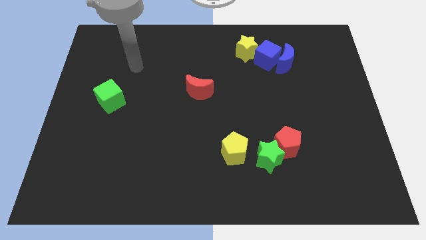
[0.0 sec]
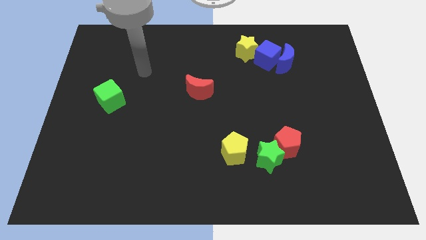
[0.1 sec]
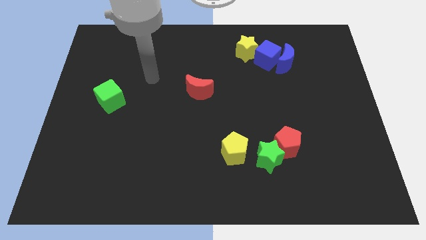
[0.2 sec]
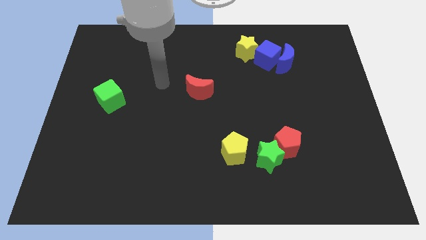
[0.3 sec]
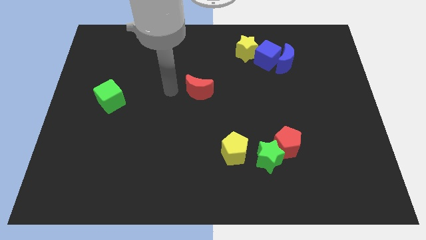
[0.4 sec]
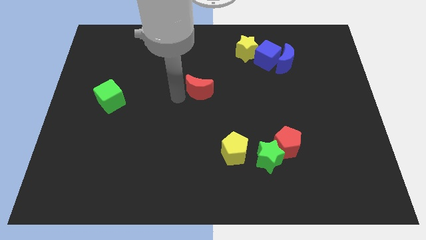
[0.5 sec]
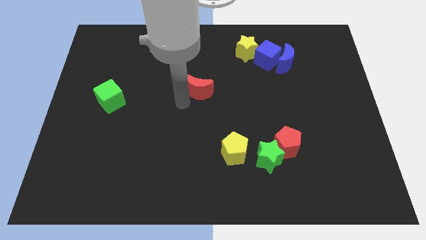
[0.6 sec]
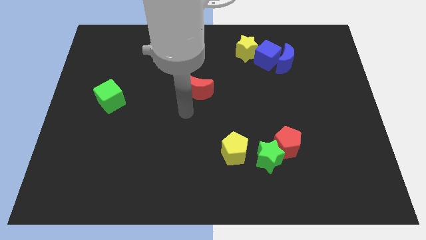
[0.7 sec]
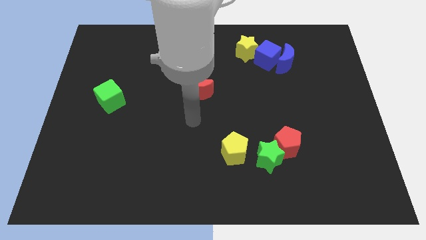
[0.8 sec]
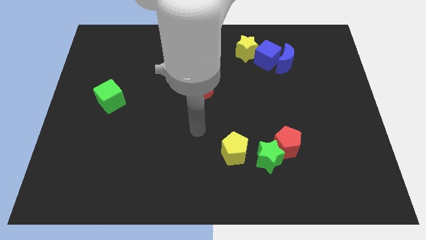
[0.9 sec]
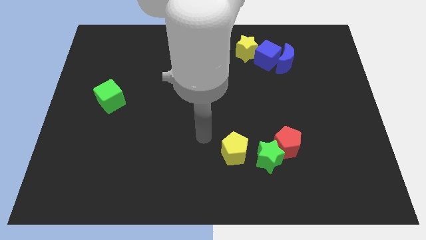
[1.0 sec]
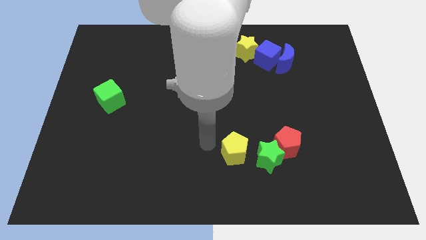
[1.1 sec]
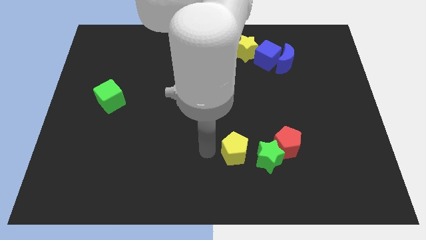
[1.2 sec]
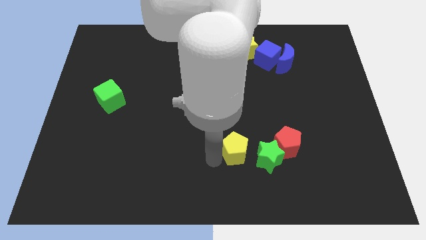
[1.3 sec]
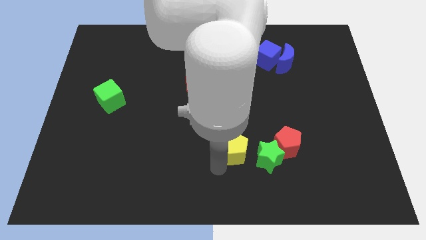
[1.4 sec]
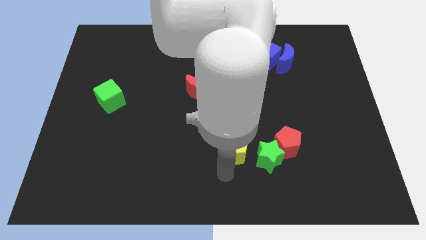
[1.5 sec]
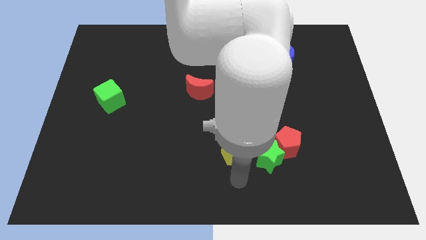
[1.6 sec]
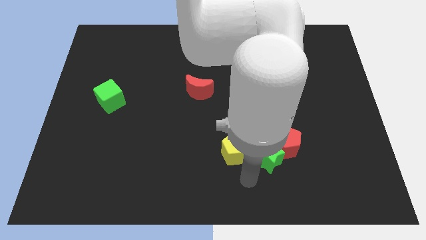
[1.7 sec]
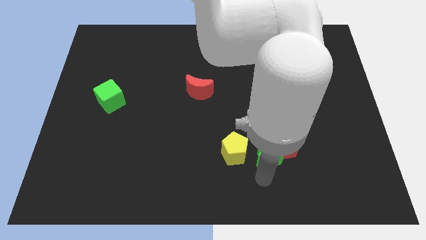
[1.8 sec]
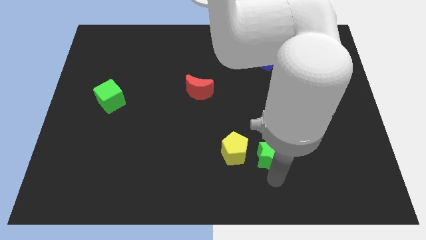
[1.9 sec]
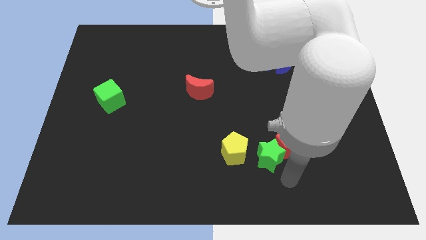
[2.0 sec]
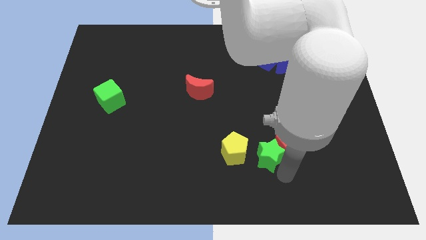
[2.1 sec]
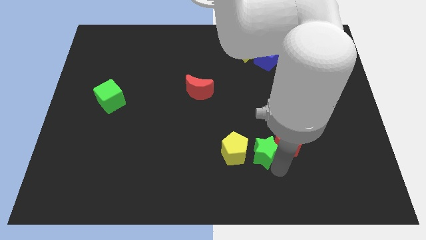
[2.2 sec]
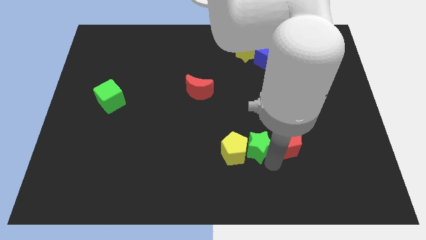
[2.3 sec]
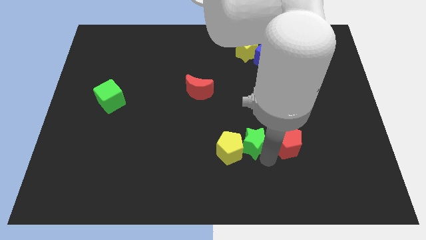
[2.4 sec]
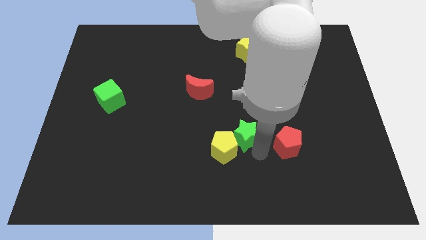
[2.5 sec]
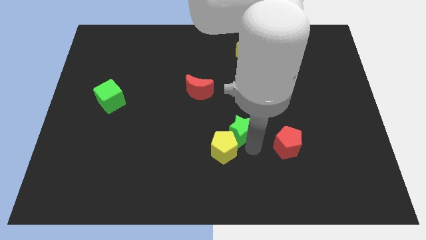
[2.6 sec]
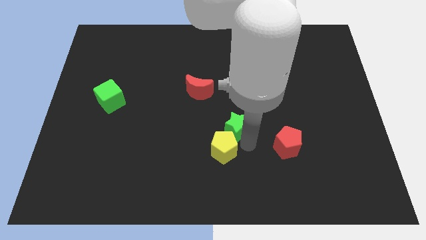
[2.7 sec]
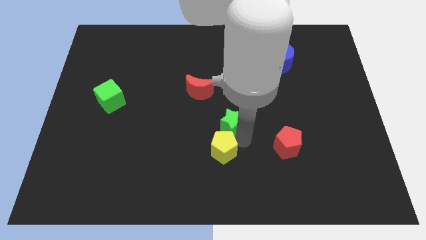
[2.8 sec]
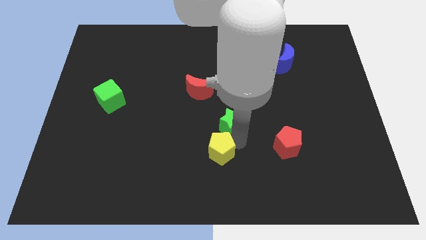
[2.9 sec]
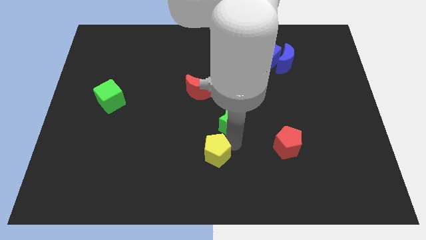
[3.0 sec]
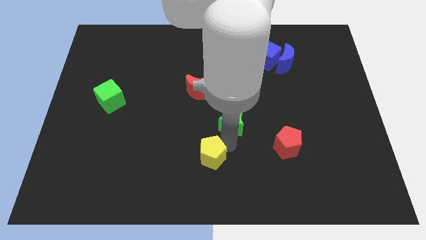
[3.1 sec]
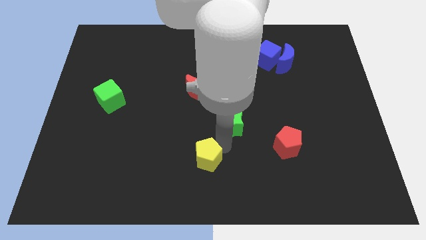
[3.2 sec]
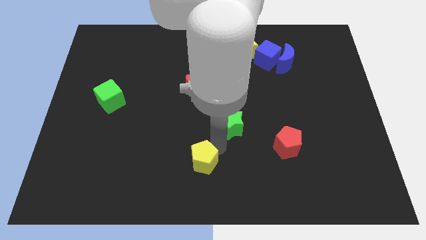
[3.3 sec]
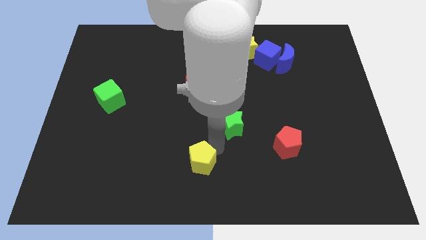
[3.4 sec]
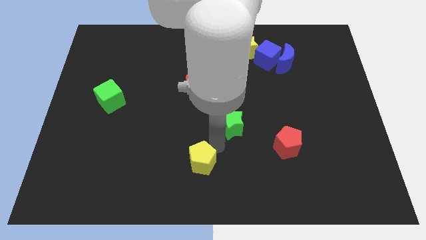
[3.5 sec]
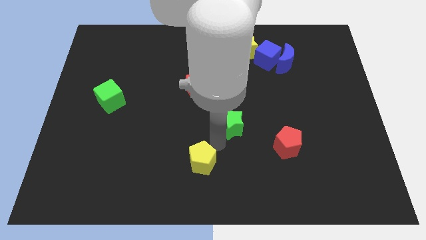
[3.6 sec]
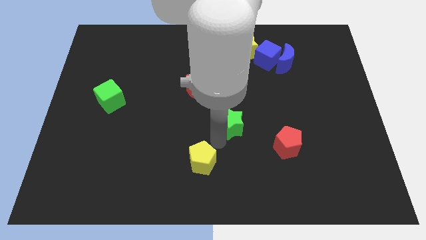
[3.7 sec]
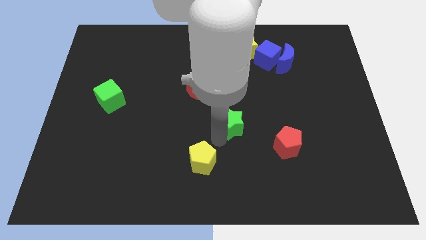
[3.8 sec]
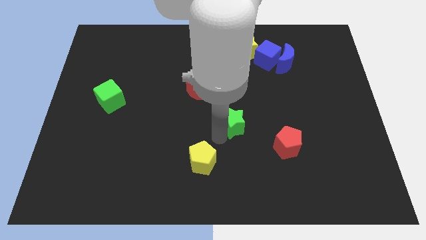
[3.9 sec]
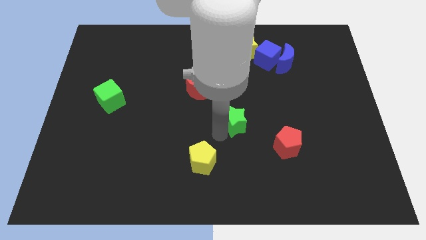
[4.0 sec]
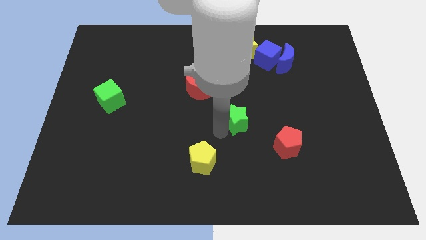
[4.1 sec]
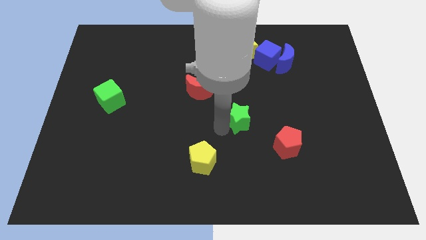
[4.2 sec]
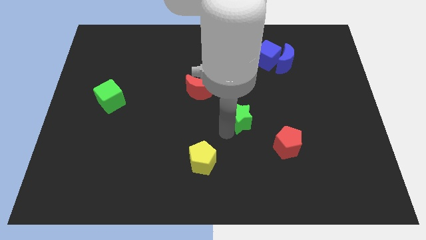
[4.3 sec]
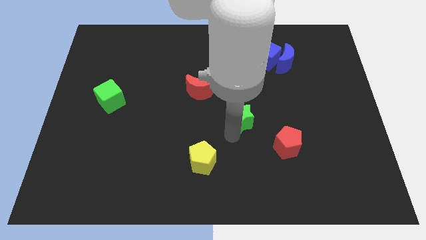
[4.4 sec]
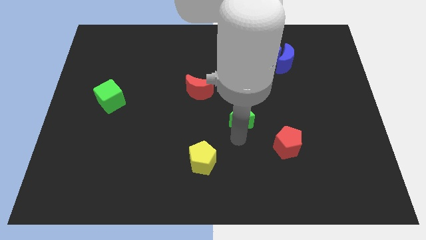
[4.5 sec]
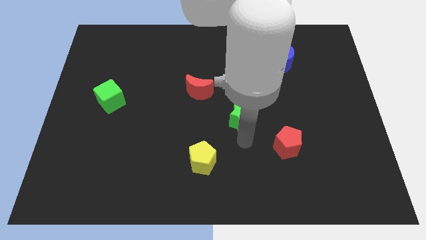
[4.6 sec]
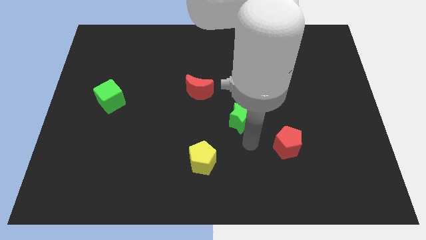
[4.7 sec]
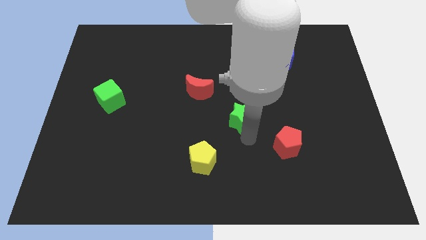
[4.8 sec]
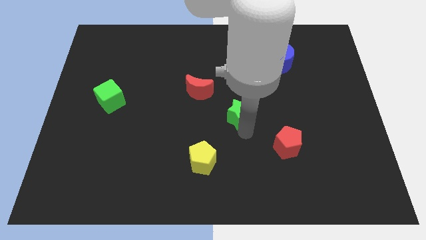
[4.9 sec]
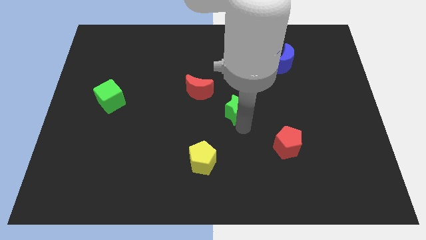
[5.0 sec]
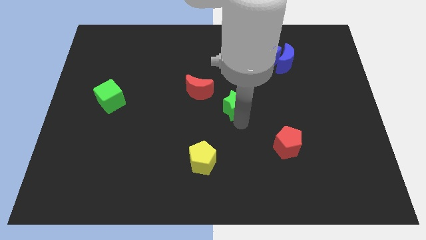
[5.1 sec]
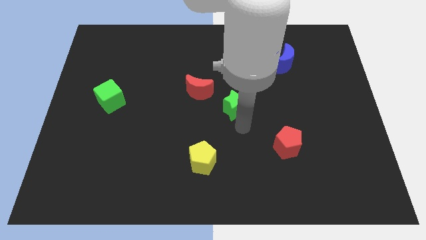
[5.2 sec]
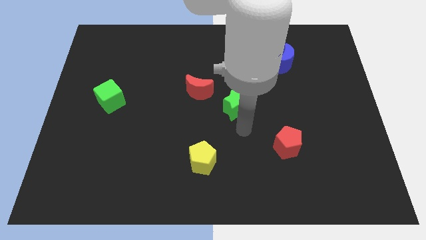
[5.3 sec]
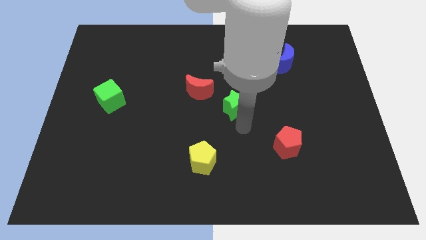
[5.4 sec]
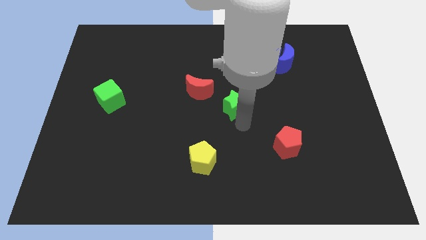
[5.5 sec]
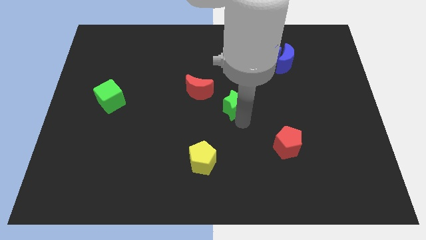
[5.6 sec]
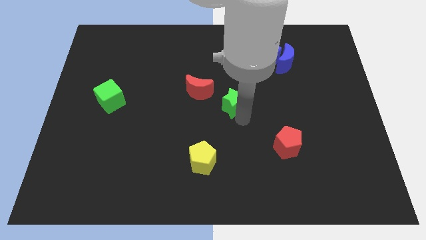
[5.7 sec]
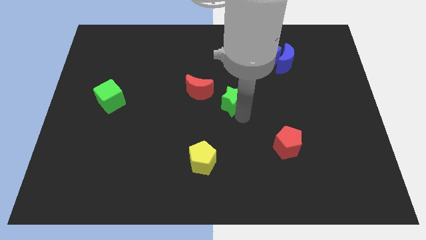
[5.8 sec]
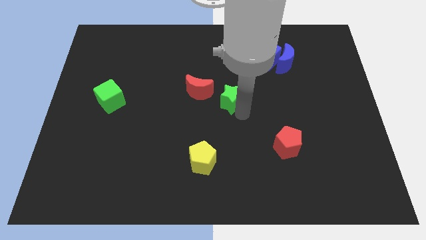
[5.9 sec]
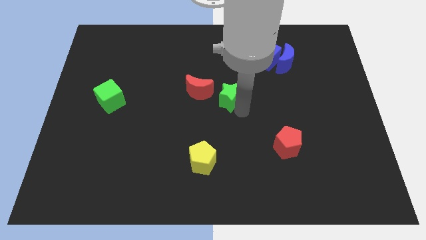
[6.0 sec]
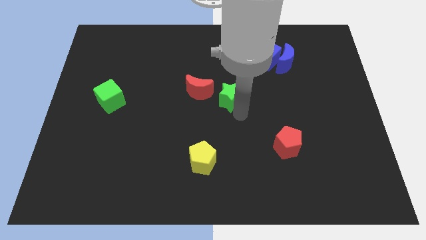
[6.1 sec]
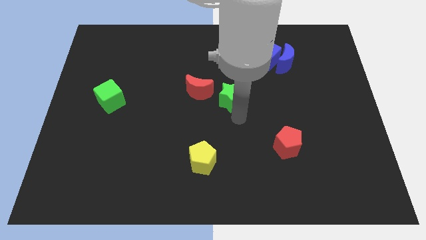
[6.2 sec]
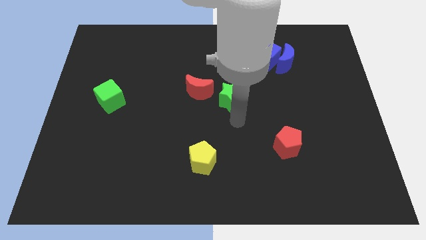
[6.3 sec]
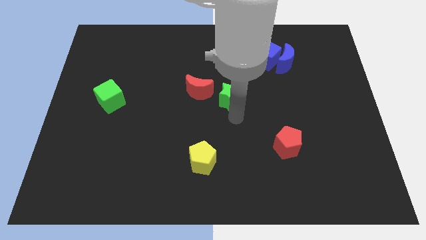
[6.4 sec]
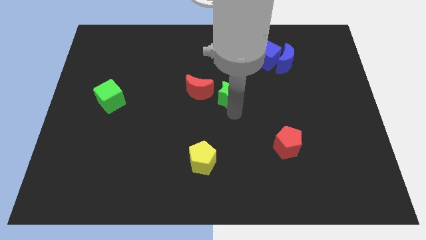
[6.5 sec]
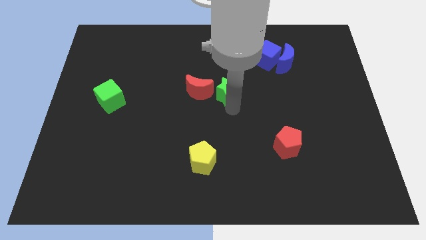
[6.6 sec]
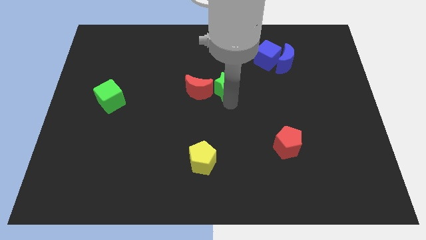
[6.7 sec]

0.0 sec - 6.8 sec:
slide the green star to the top right of the red moon
